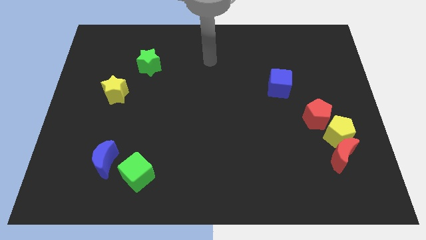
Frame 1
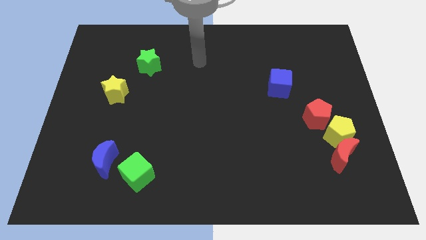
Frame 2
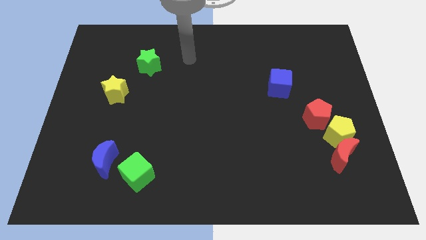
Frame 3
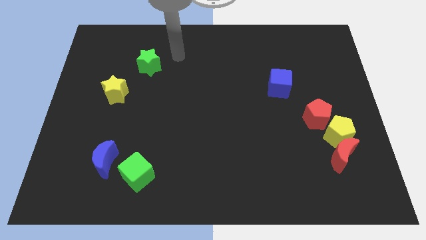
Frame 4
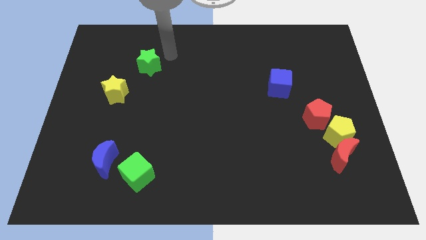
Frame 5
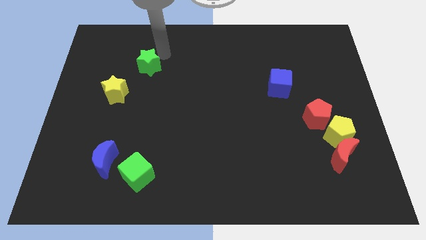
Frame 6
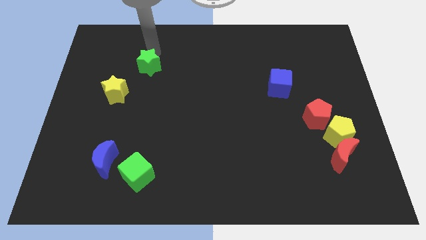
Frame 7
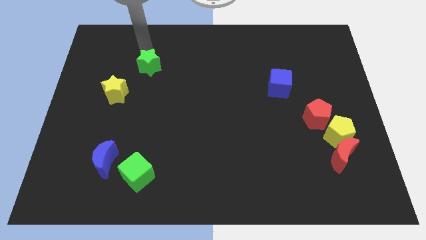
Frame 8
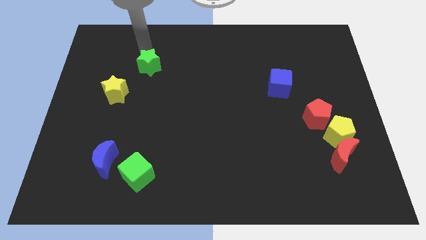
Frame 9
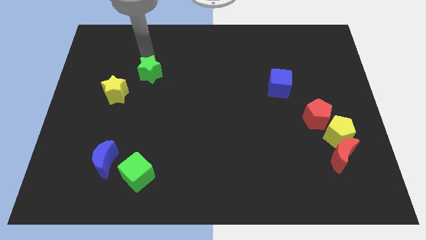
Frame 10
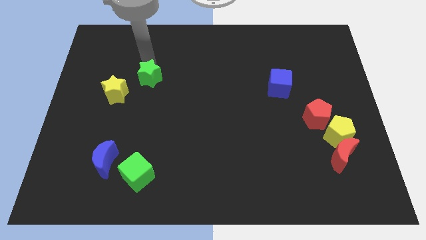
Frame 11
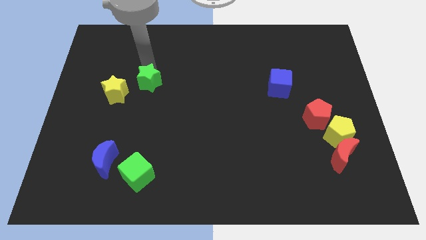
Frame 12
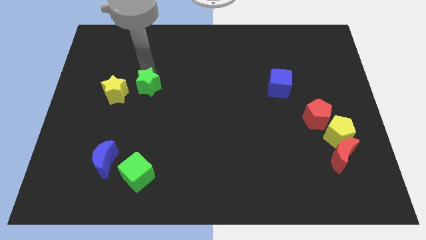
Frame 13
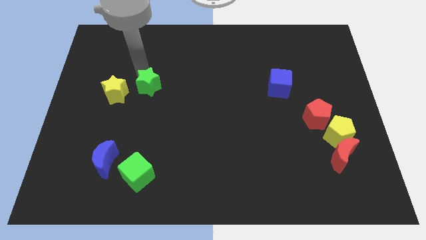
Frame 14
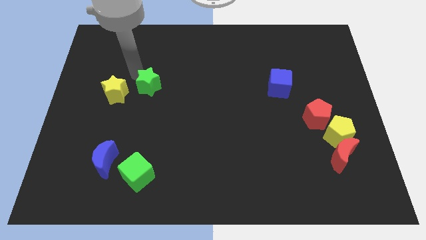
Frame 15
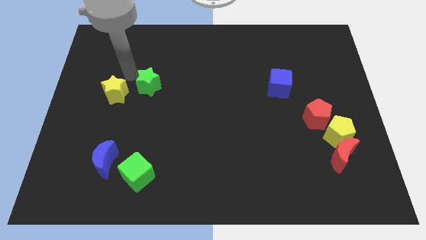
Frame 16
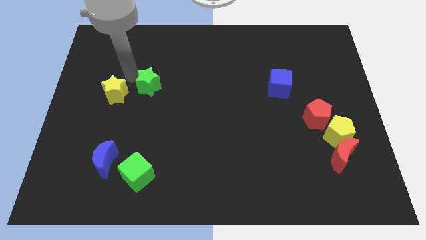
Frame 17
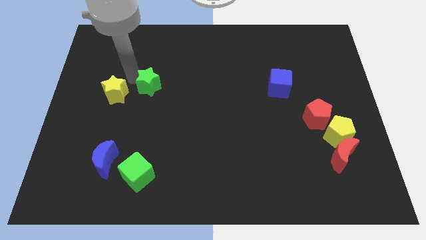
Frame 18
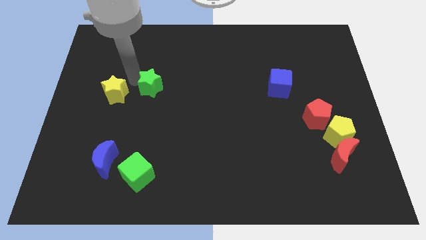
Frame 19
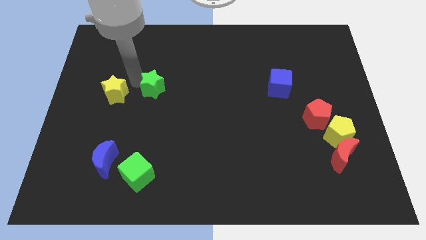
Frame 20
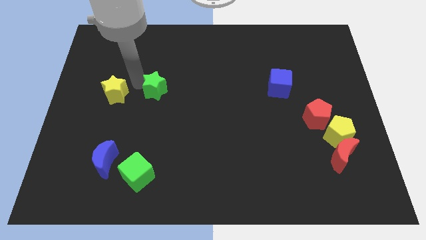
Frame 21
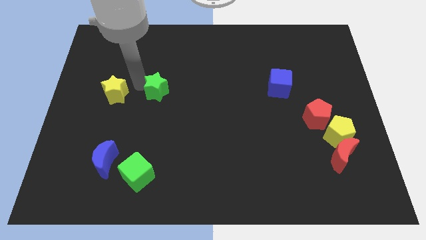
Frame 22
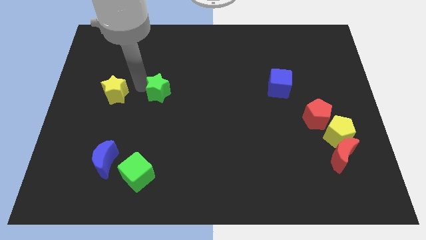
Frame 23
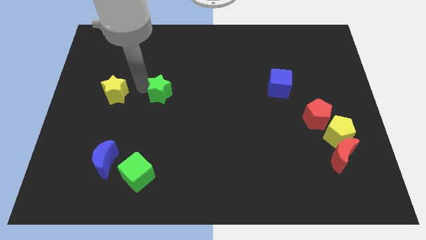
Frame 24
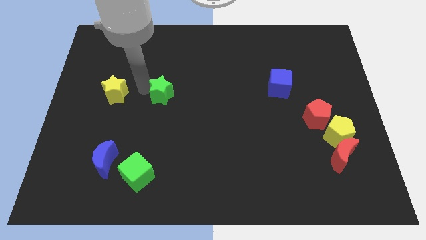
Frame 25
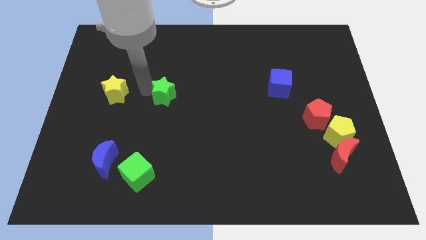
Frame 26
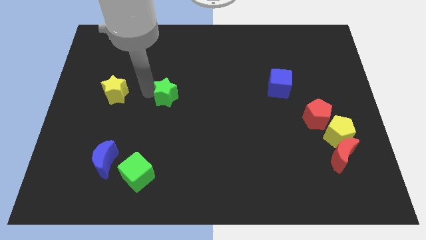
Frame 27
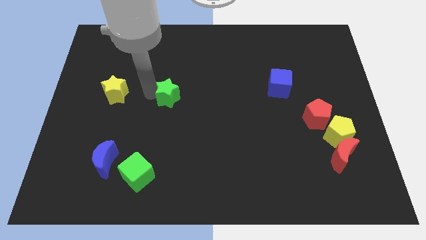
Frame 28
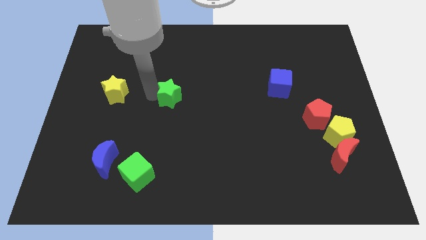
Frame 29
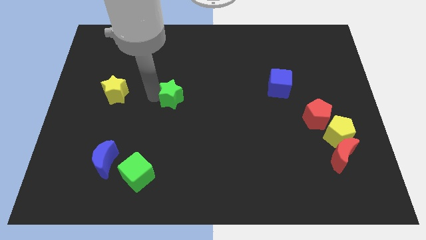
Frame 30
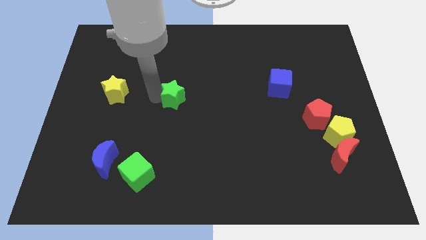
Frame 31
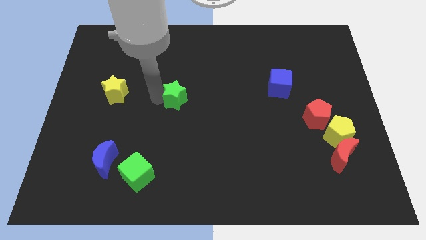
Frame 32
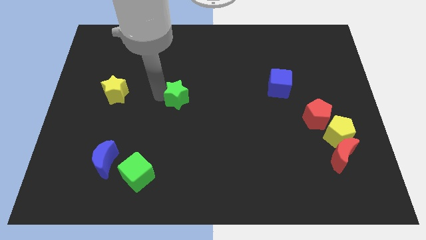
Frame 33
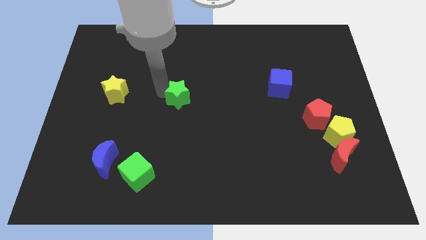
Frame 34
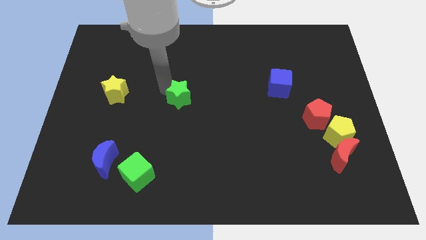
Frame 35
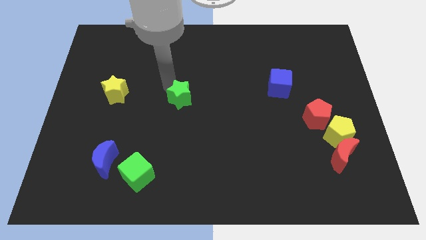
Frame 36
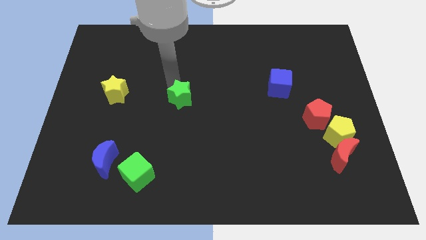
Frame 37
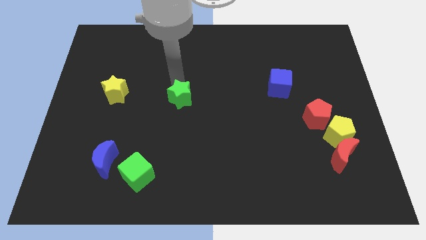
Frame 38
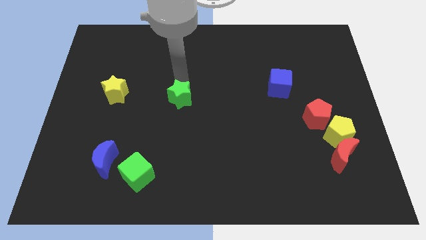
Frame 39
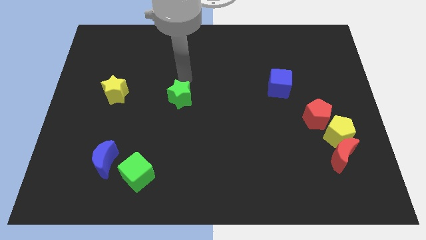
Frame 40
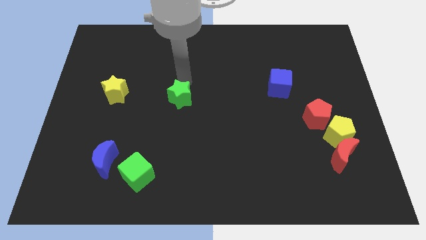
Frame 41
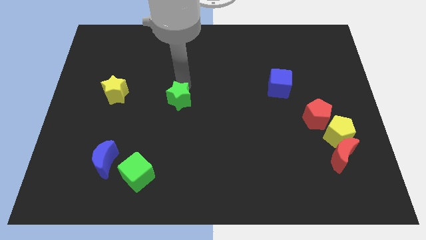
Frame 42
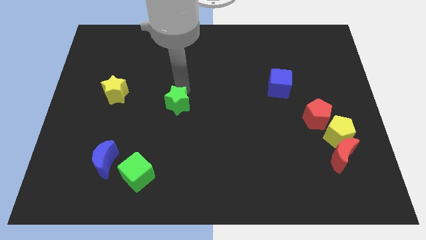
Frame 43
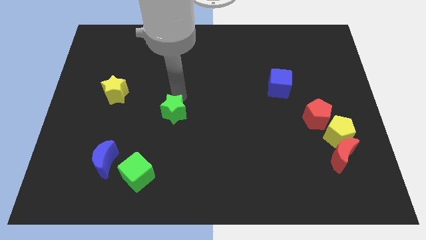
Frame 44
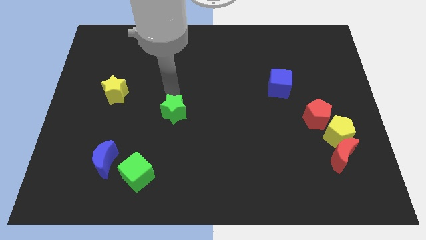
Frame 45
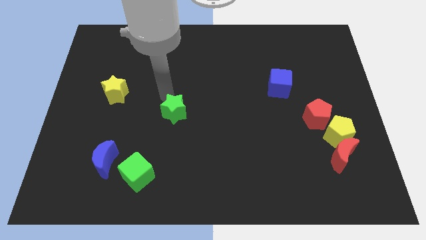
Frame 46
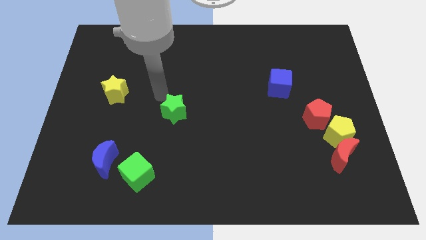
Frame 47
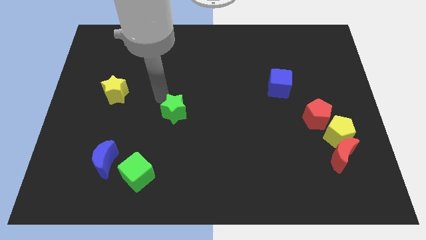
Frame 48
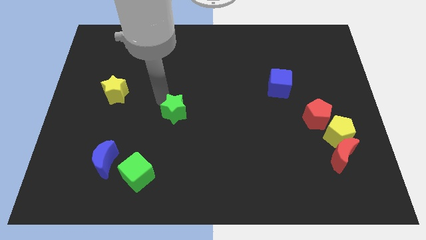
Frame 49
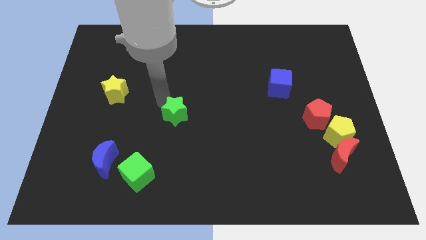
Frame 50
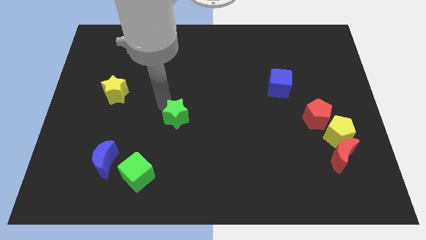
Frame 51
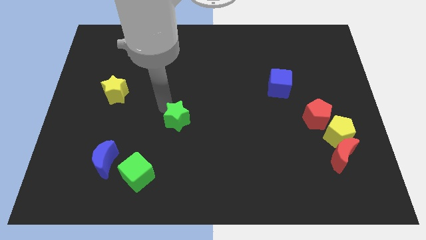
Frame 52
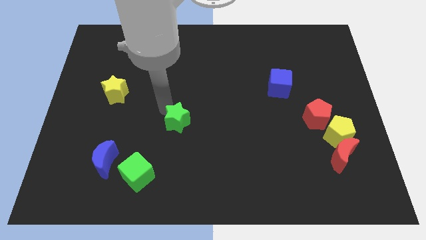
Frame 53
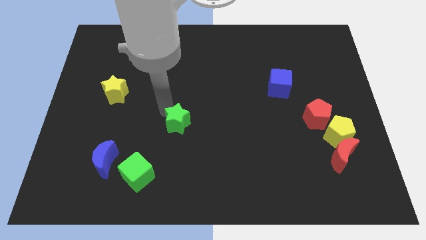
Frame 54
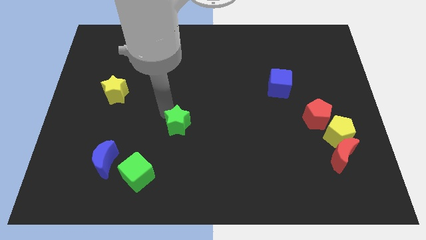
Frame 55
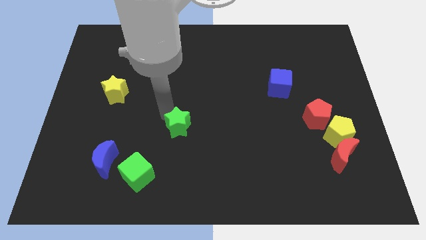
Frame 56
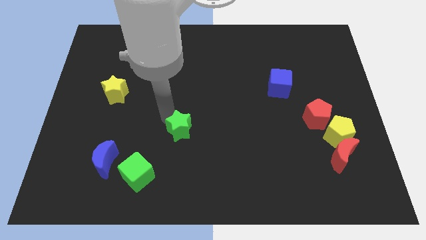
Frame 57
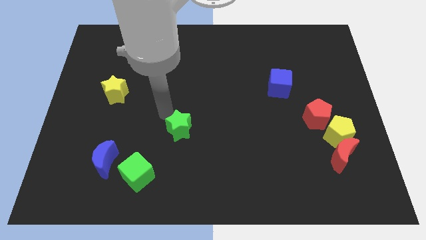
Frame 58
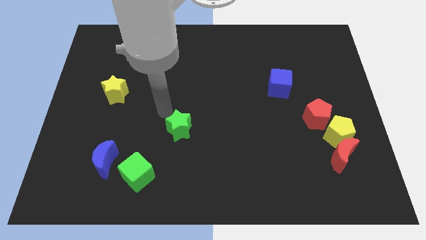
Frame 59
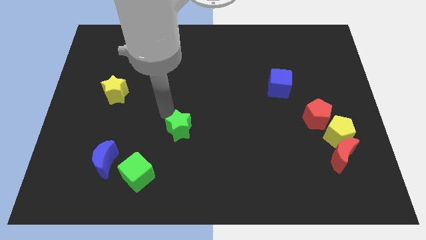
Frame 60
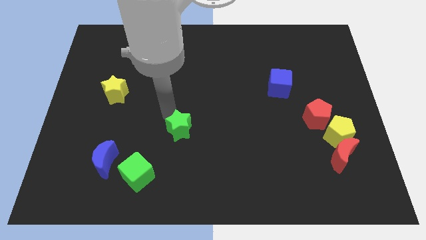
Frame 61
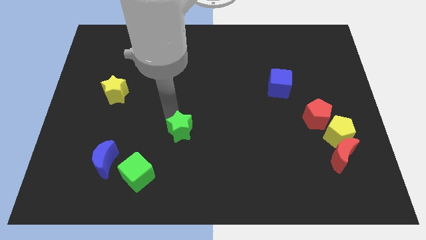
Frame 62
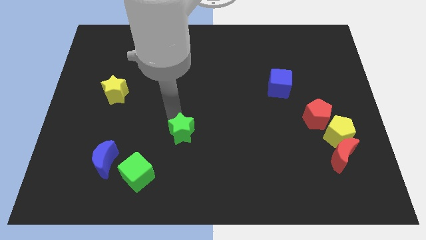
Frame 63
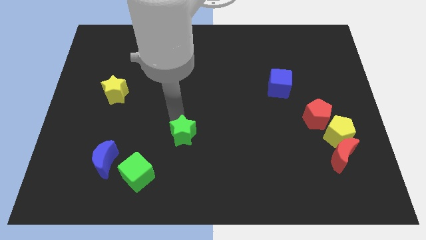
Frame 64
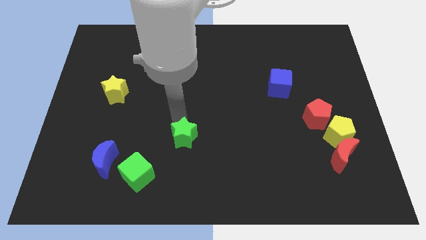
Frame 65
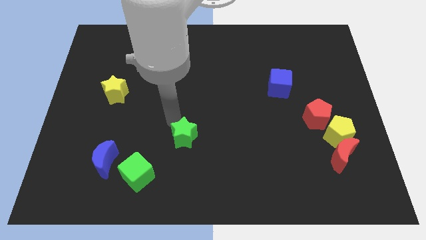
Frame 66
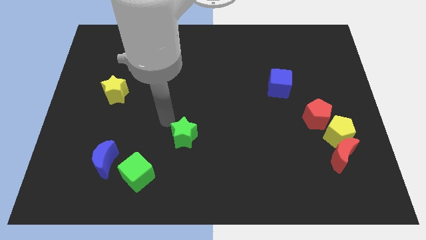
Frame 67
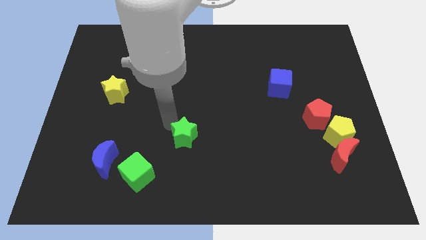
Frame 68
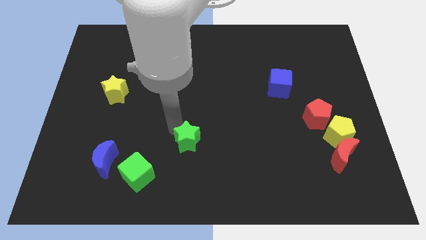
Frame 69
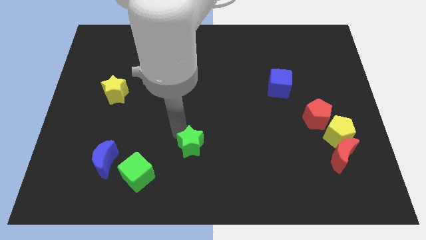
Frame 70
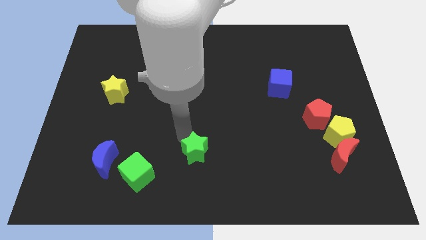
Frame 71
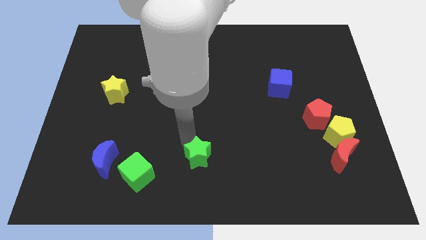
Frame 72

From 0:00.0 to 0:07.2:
put the green star to the bottom side

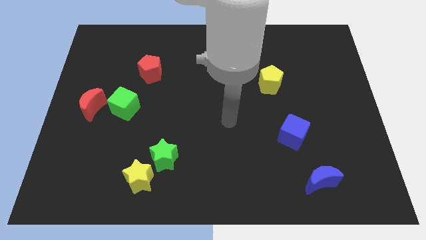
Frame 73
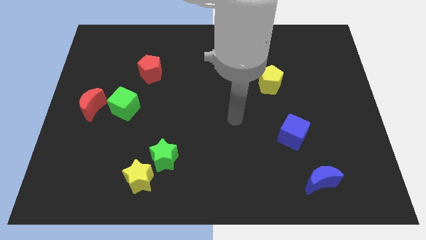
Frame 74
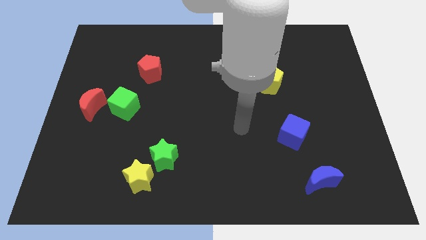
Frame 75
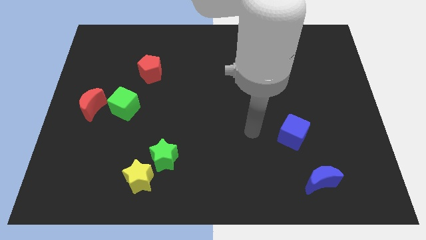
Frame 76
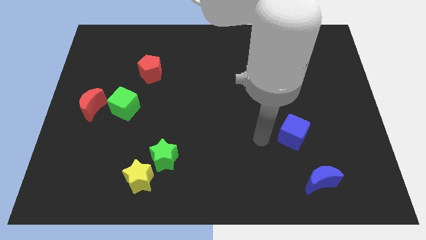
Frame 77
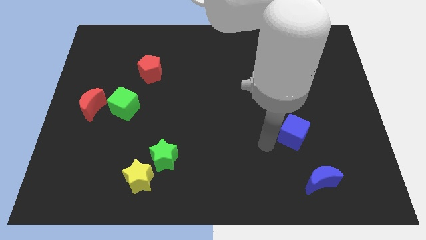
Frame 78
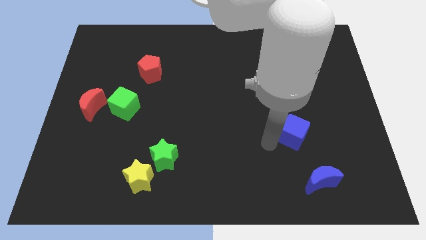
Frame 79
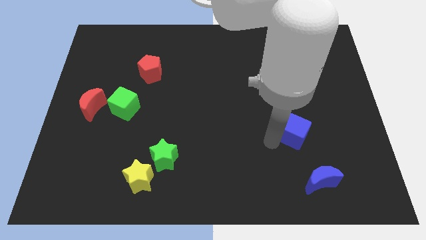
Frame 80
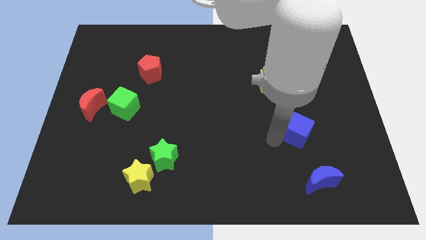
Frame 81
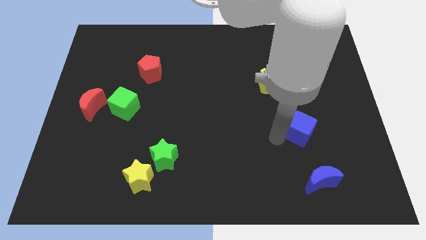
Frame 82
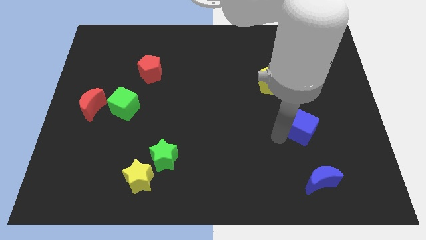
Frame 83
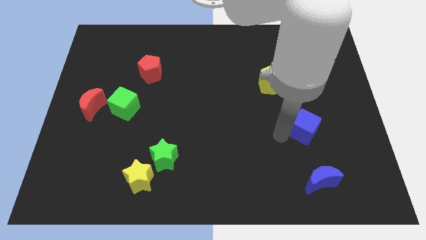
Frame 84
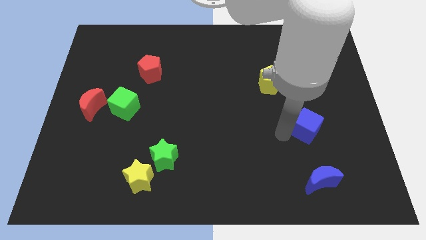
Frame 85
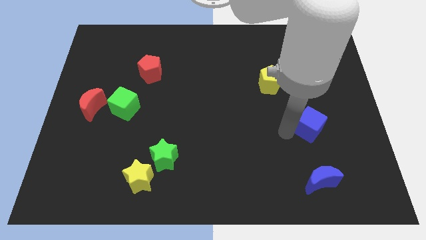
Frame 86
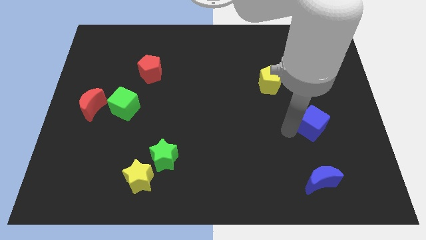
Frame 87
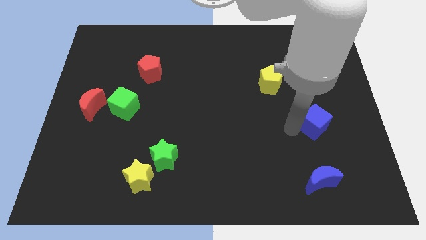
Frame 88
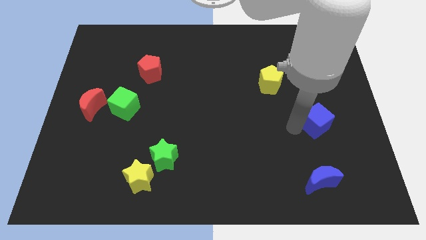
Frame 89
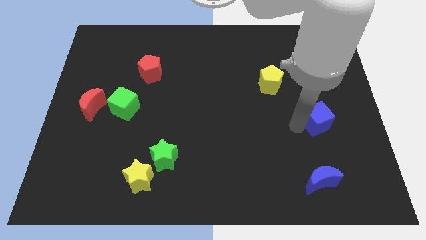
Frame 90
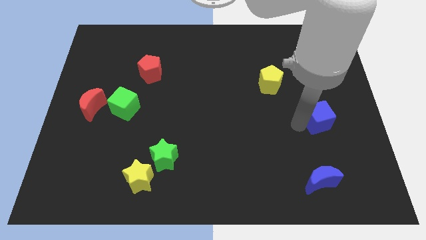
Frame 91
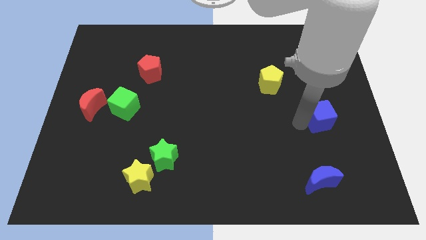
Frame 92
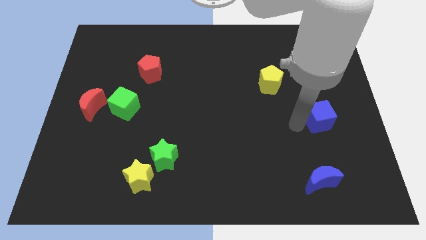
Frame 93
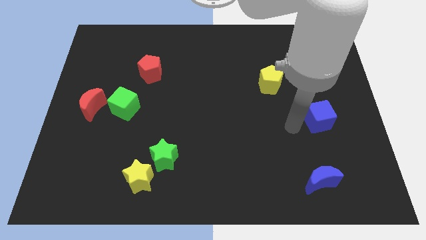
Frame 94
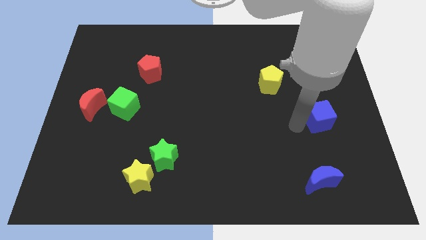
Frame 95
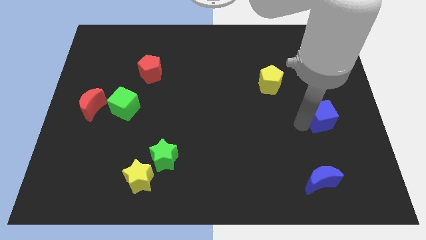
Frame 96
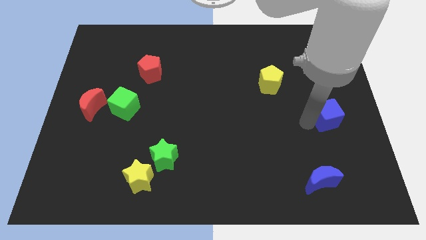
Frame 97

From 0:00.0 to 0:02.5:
move the blue cube to the center right
